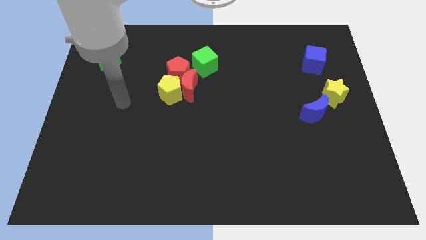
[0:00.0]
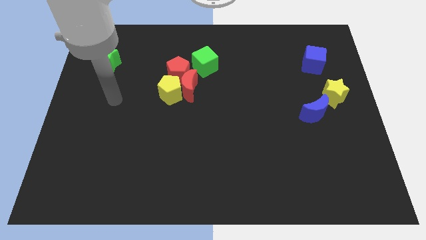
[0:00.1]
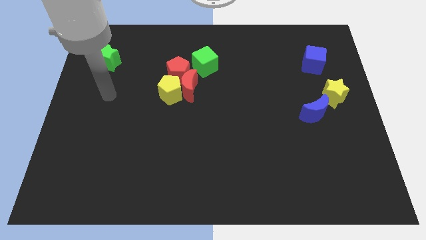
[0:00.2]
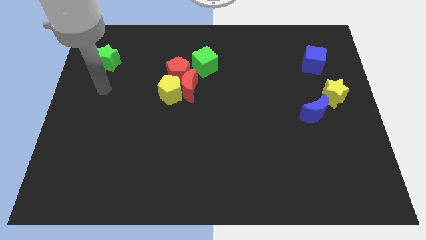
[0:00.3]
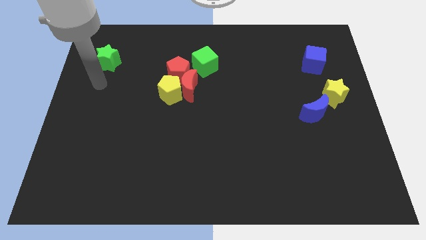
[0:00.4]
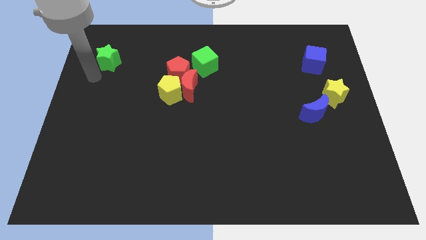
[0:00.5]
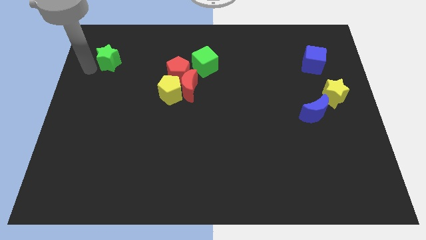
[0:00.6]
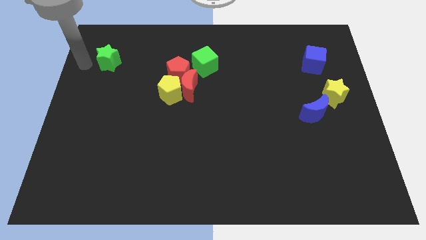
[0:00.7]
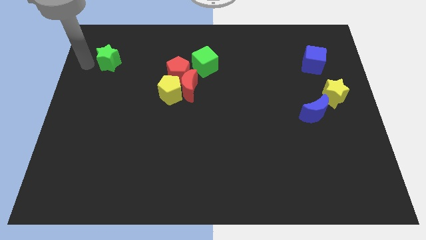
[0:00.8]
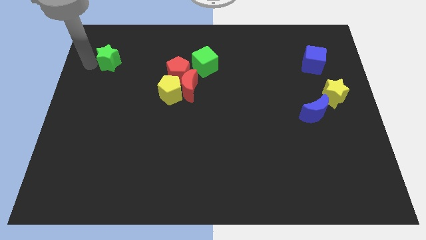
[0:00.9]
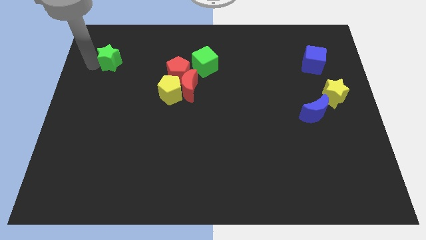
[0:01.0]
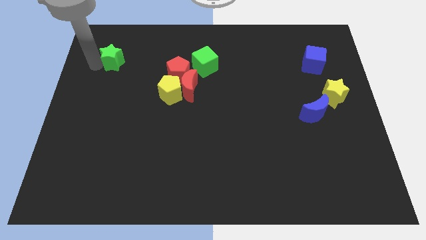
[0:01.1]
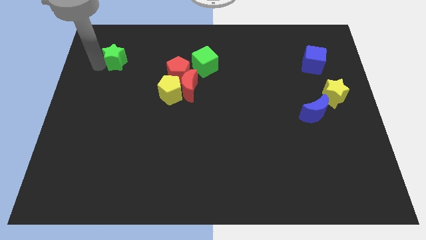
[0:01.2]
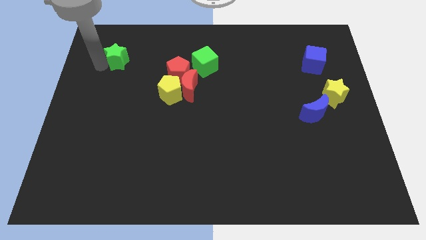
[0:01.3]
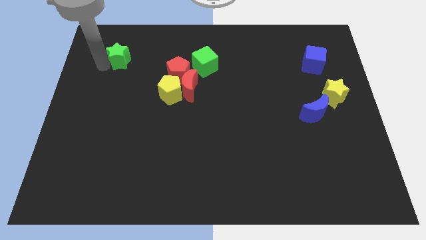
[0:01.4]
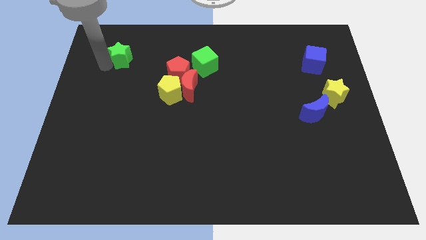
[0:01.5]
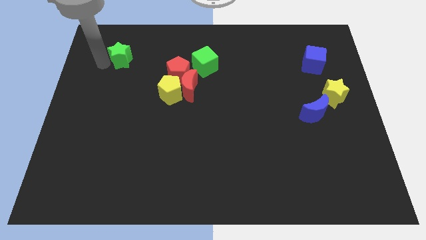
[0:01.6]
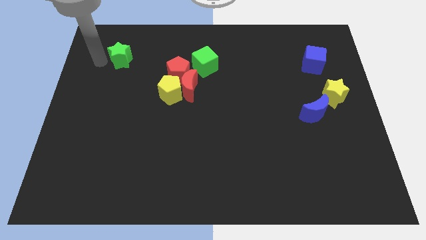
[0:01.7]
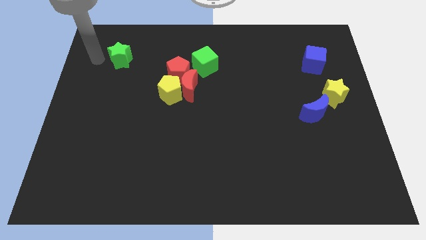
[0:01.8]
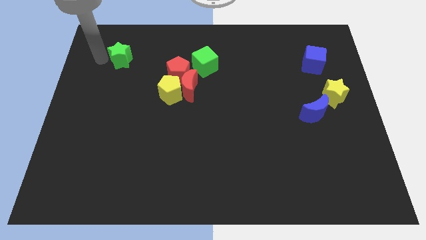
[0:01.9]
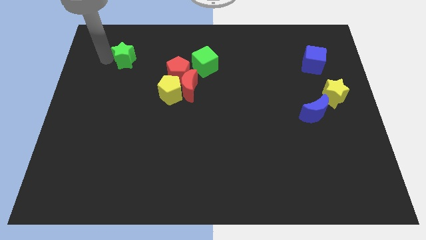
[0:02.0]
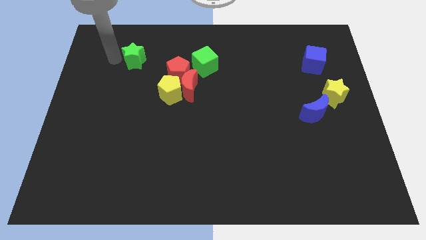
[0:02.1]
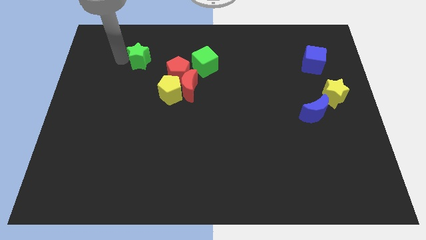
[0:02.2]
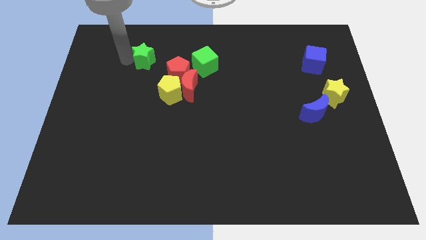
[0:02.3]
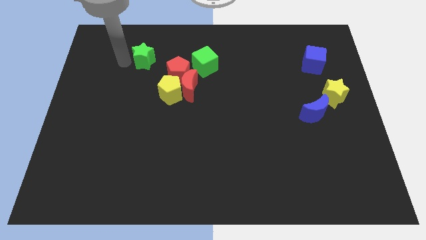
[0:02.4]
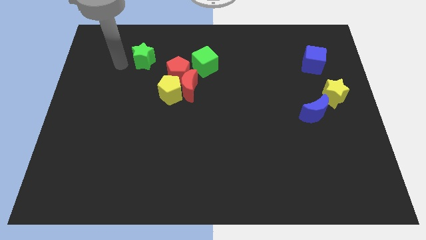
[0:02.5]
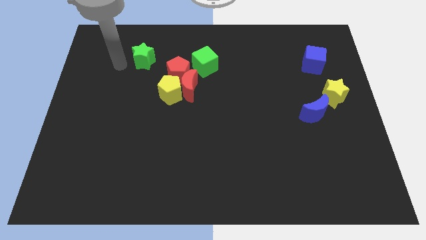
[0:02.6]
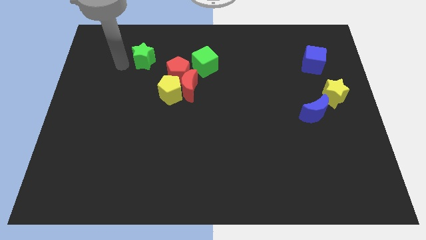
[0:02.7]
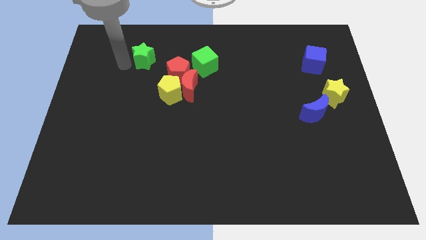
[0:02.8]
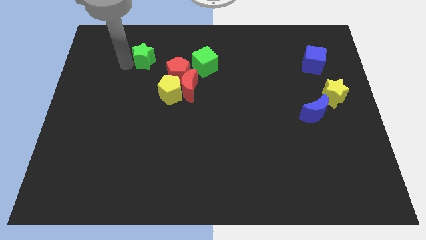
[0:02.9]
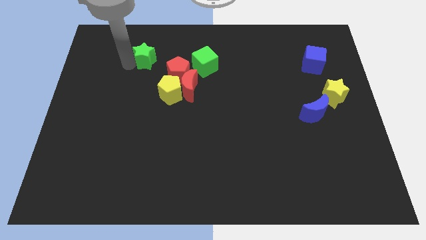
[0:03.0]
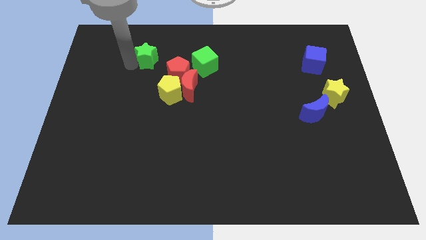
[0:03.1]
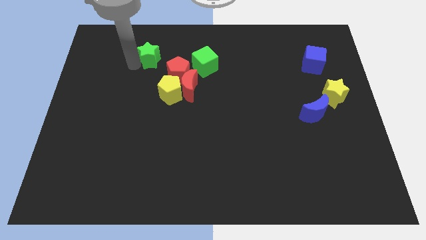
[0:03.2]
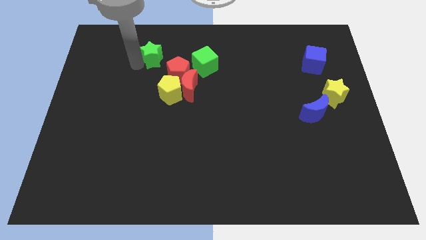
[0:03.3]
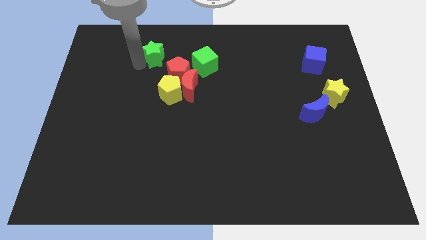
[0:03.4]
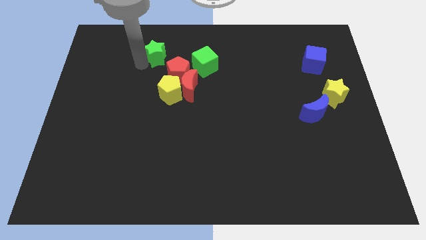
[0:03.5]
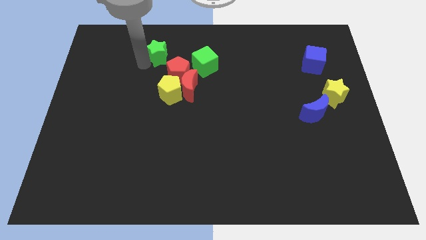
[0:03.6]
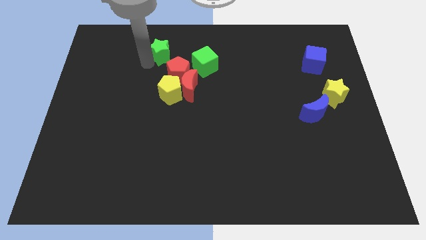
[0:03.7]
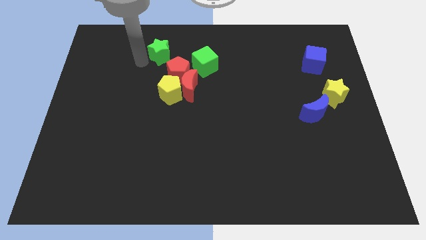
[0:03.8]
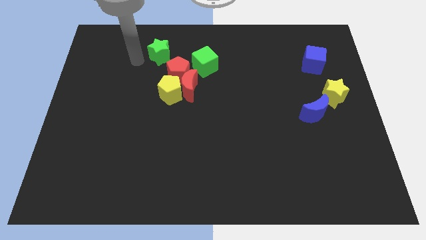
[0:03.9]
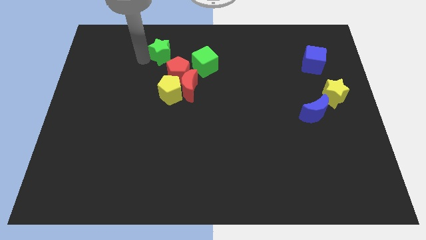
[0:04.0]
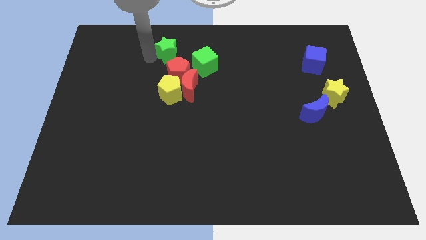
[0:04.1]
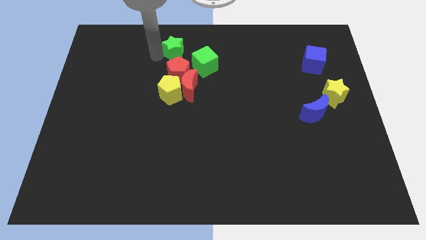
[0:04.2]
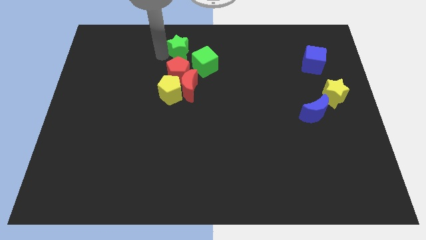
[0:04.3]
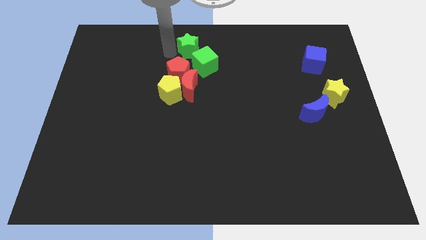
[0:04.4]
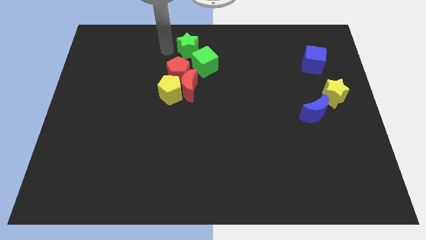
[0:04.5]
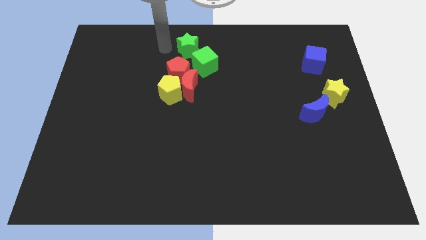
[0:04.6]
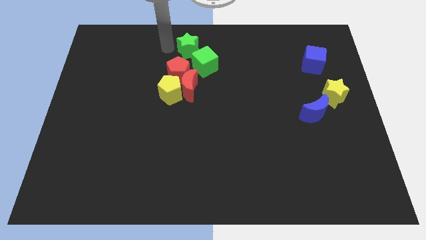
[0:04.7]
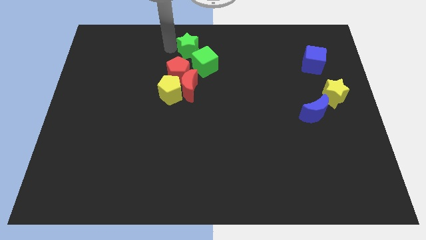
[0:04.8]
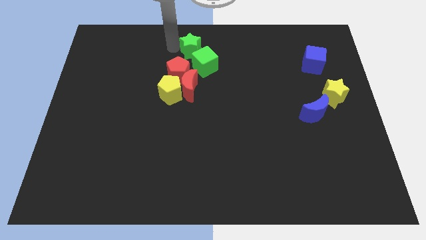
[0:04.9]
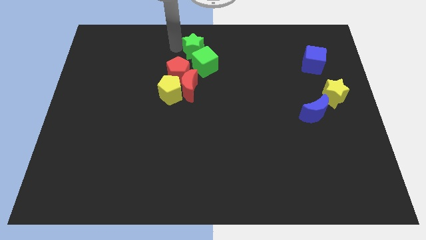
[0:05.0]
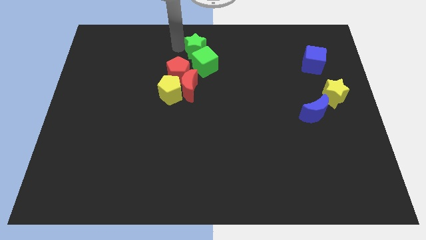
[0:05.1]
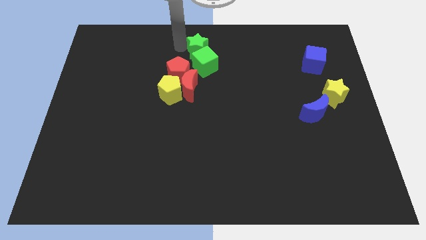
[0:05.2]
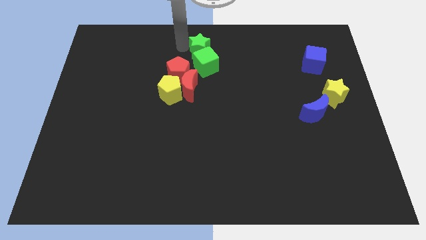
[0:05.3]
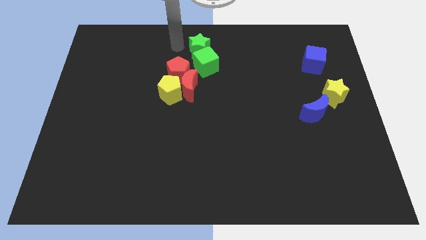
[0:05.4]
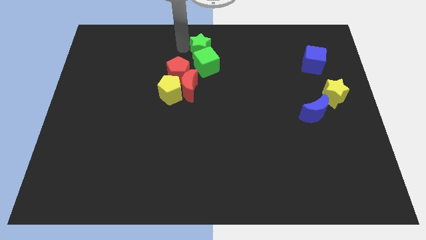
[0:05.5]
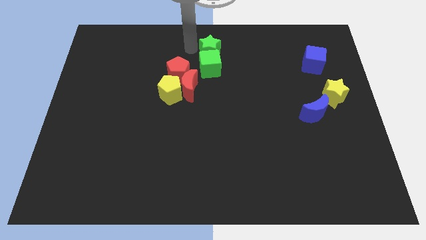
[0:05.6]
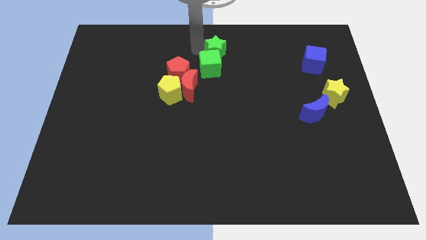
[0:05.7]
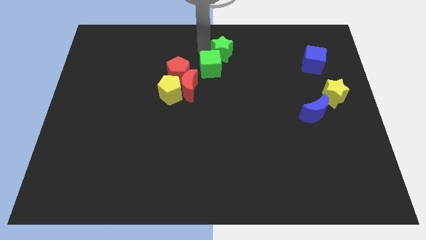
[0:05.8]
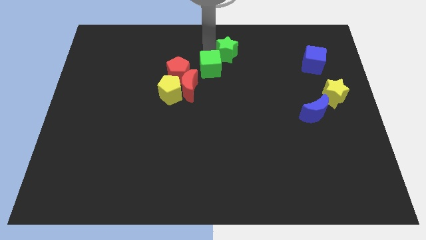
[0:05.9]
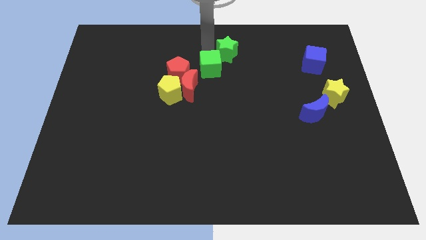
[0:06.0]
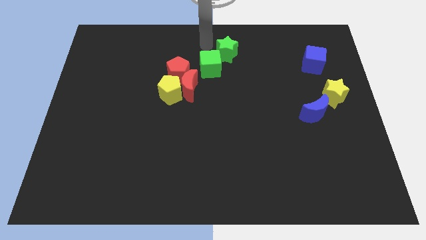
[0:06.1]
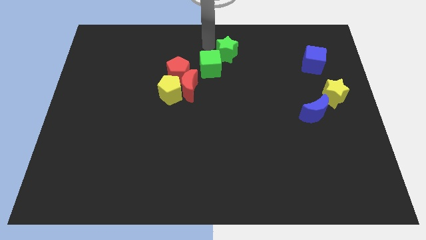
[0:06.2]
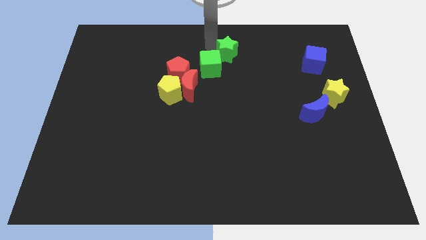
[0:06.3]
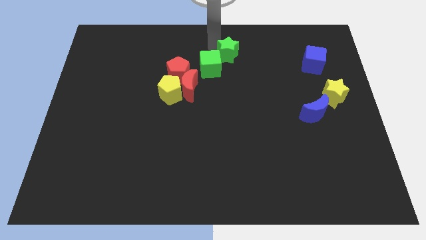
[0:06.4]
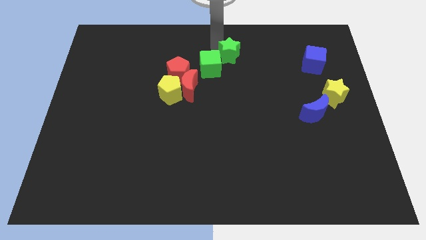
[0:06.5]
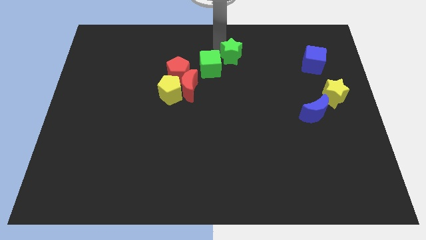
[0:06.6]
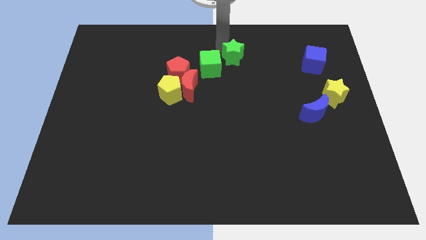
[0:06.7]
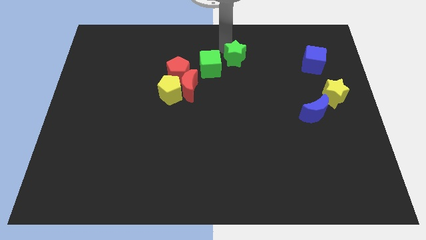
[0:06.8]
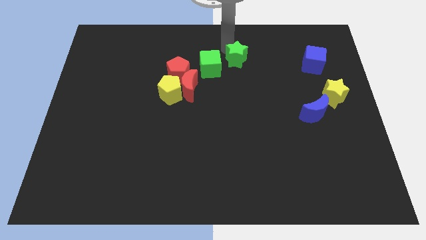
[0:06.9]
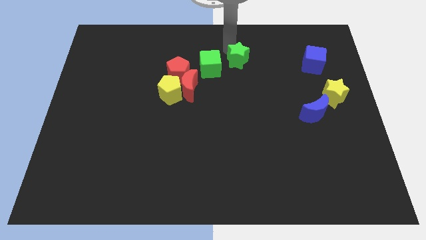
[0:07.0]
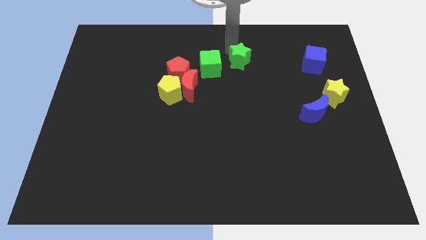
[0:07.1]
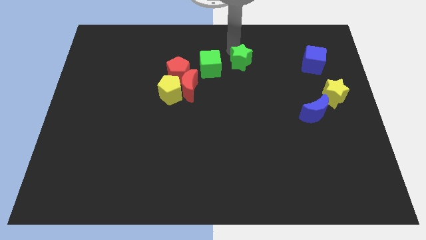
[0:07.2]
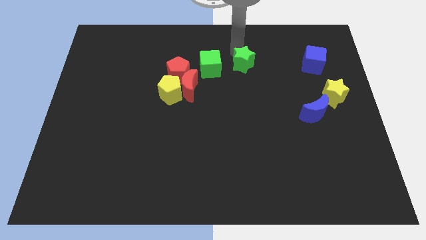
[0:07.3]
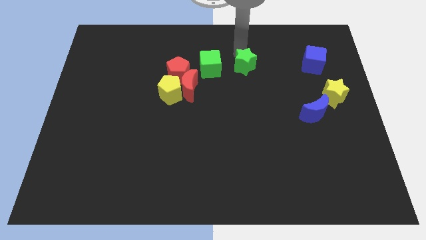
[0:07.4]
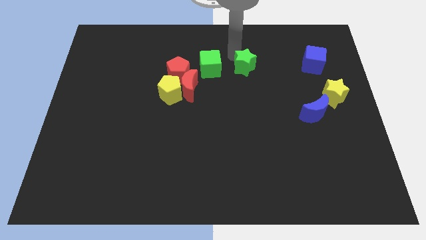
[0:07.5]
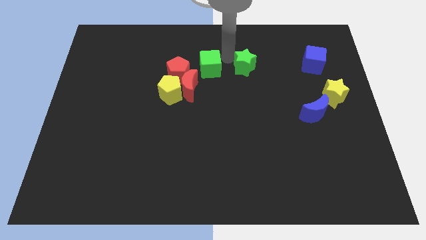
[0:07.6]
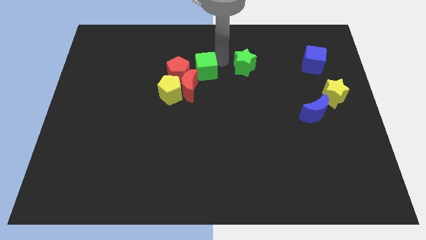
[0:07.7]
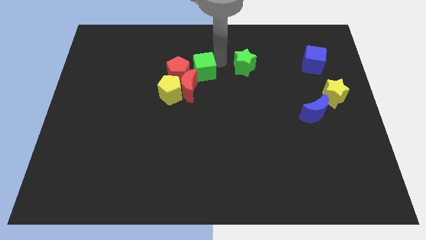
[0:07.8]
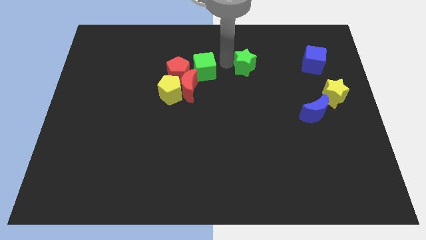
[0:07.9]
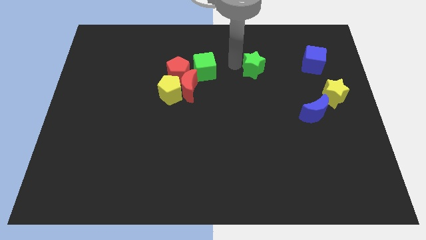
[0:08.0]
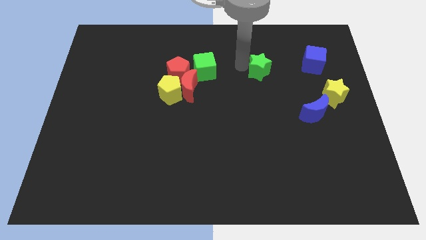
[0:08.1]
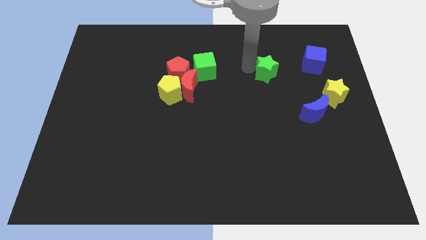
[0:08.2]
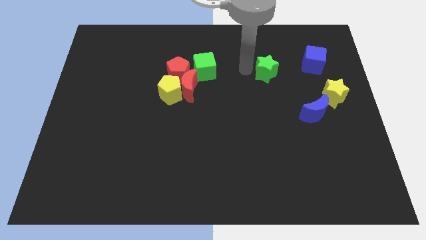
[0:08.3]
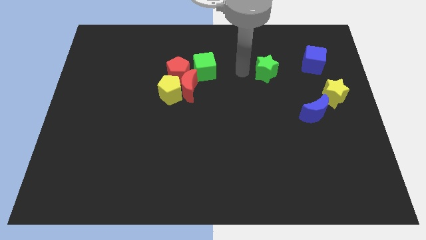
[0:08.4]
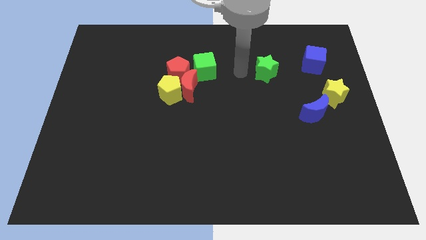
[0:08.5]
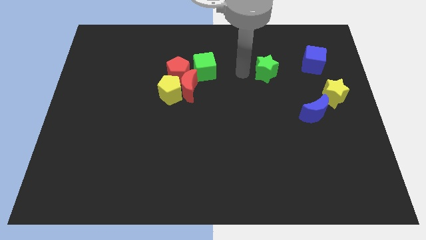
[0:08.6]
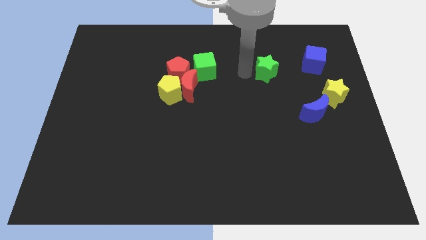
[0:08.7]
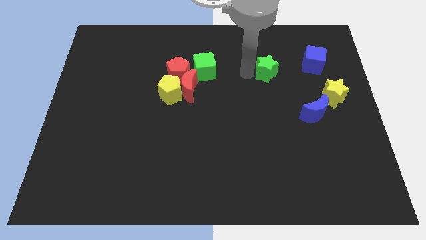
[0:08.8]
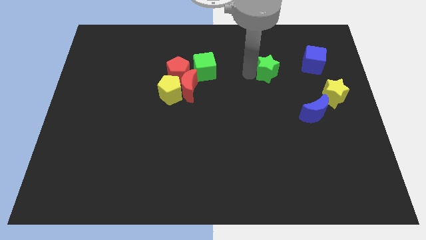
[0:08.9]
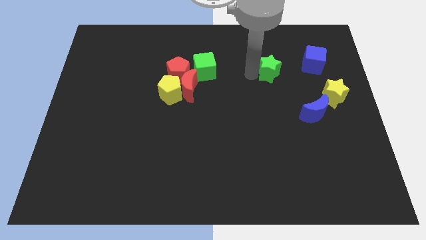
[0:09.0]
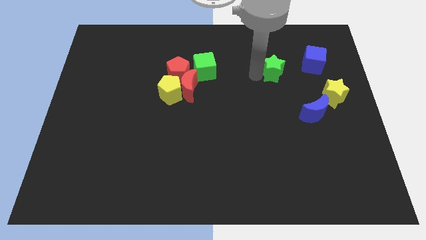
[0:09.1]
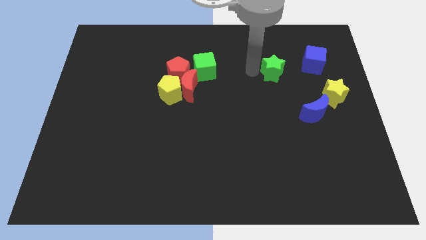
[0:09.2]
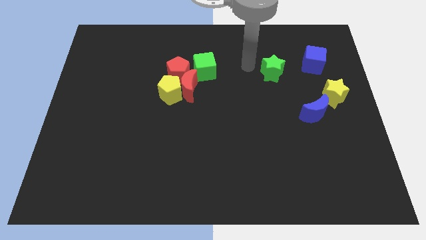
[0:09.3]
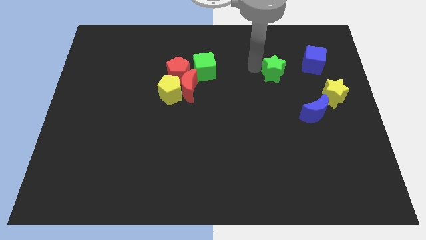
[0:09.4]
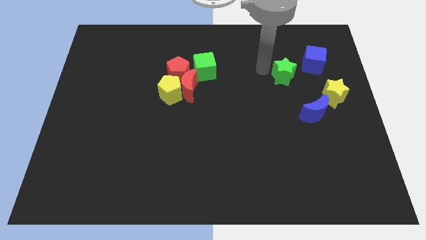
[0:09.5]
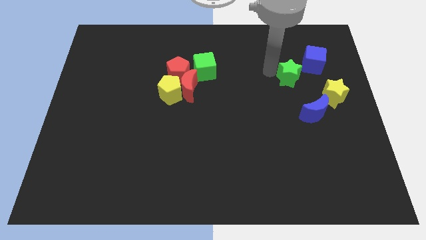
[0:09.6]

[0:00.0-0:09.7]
move the green star to the top left side of the yellow star
